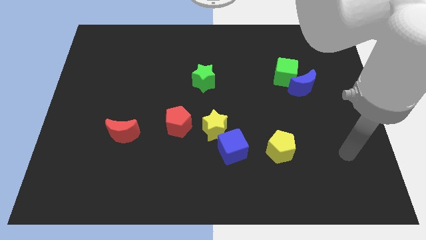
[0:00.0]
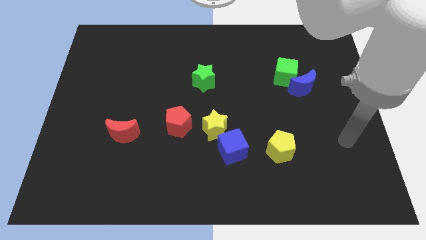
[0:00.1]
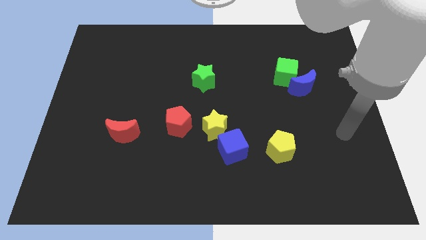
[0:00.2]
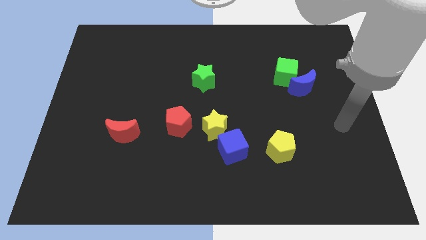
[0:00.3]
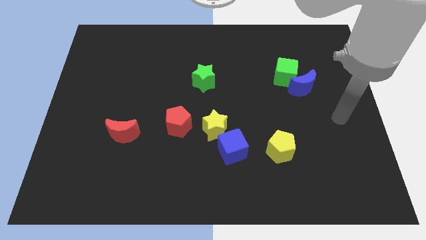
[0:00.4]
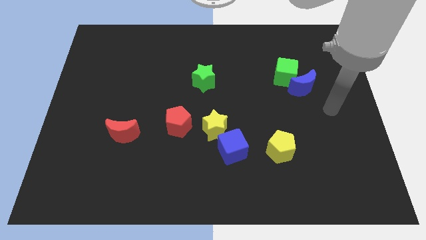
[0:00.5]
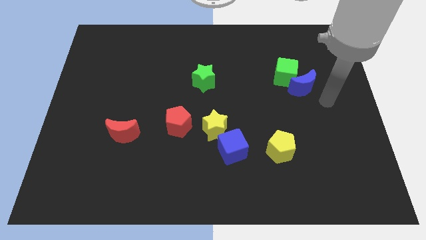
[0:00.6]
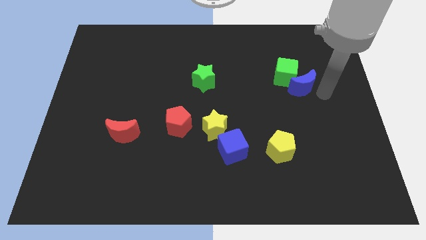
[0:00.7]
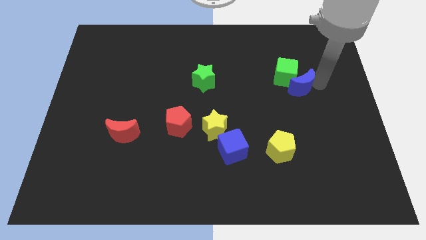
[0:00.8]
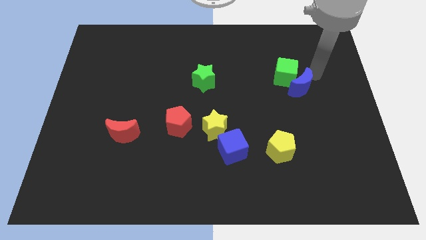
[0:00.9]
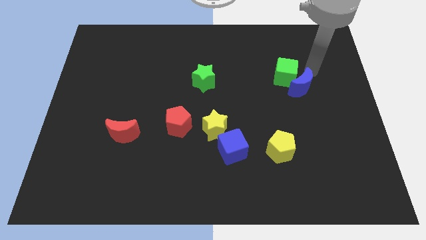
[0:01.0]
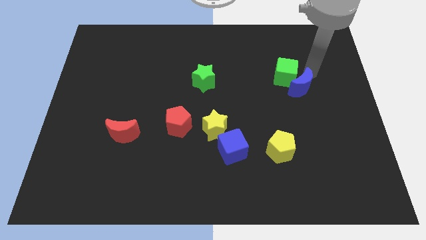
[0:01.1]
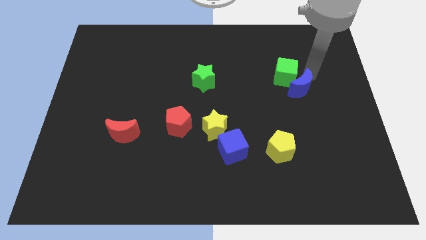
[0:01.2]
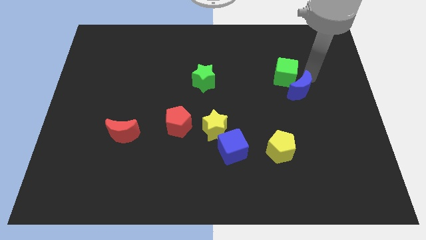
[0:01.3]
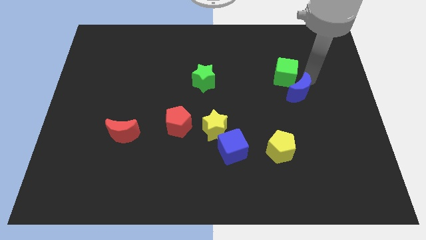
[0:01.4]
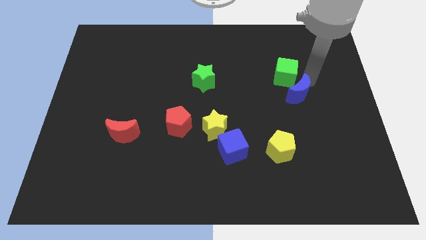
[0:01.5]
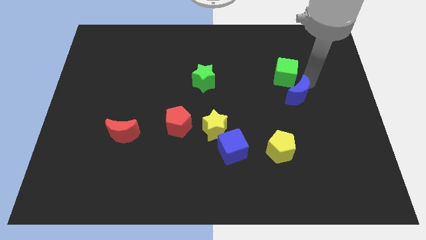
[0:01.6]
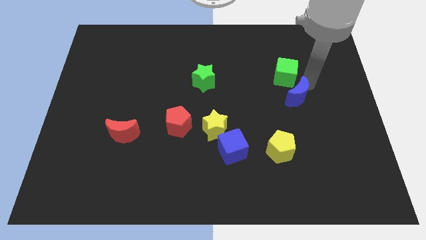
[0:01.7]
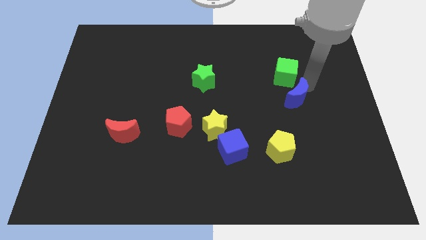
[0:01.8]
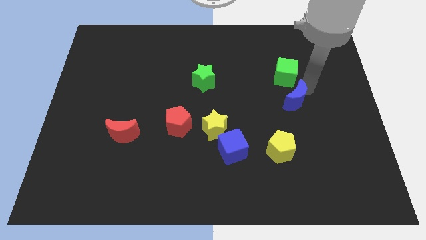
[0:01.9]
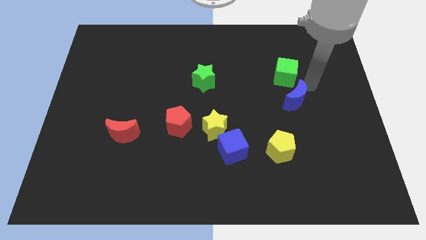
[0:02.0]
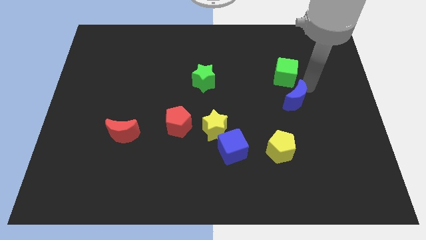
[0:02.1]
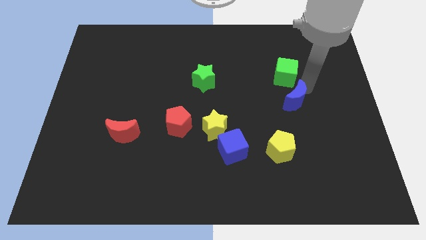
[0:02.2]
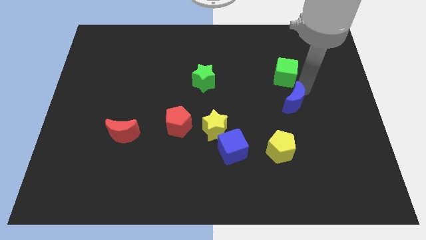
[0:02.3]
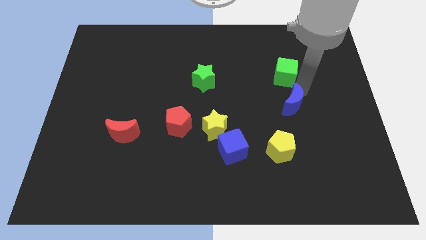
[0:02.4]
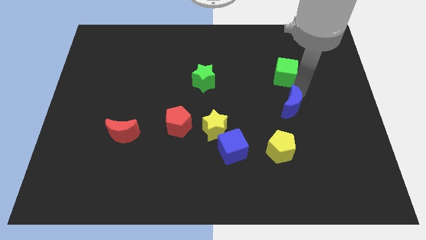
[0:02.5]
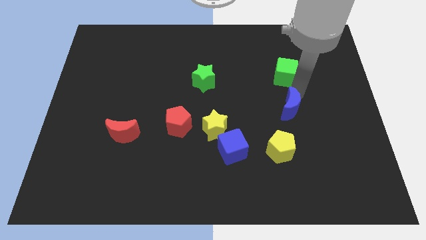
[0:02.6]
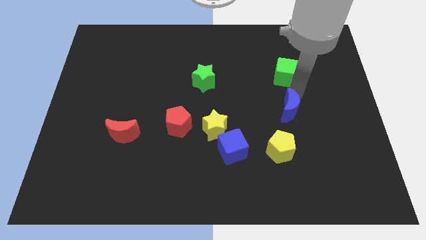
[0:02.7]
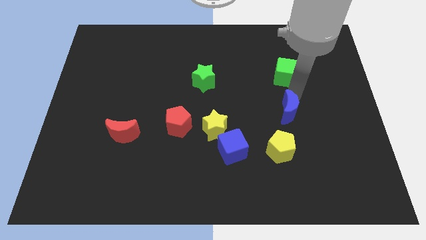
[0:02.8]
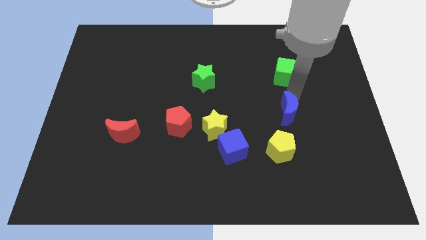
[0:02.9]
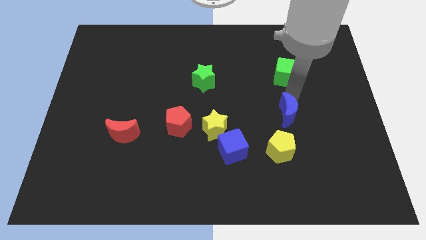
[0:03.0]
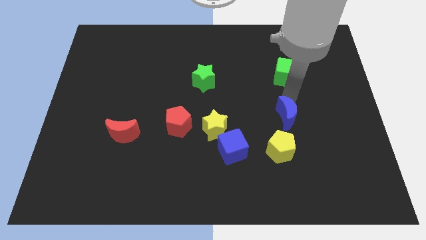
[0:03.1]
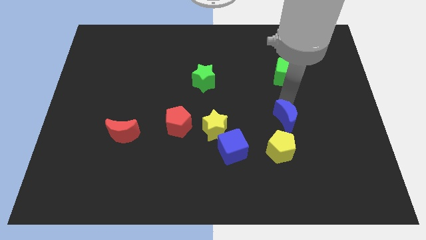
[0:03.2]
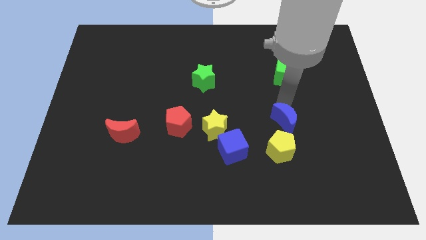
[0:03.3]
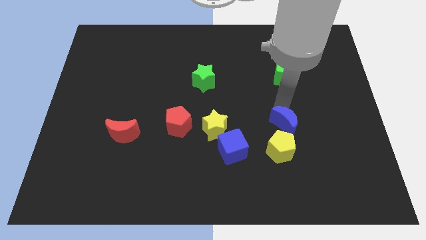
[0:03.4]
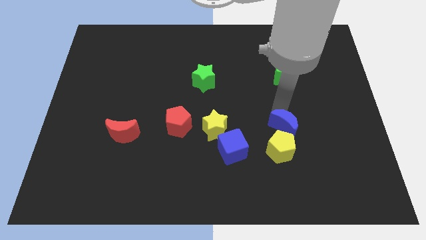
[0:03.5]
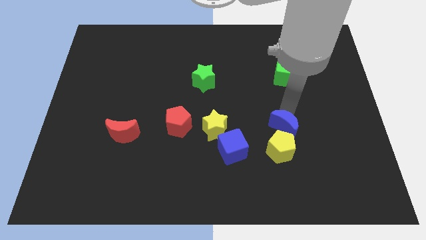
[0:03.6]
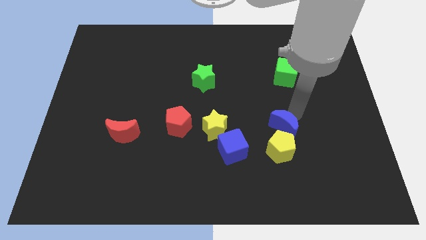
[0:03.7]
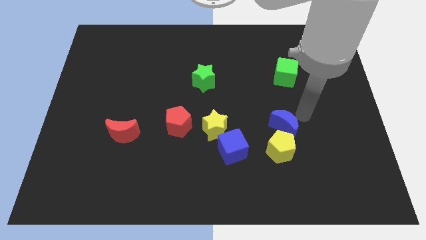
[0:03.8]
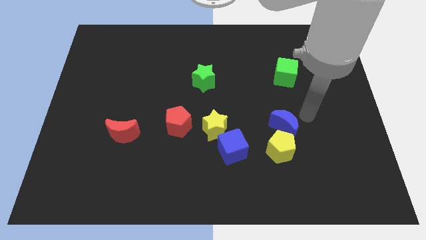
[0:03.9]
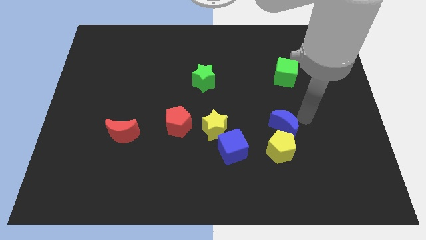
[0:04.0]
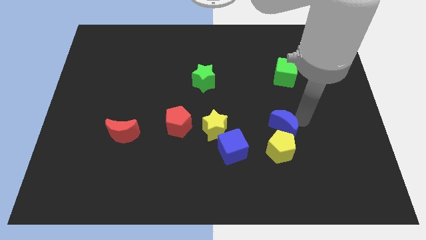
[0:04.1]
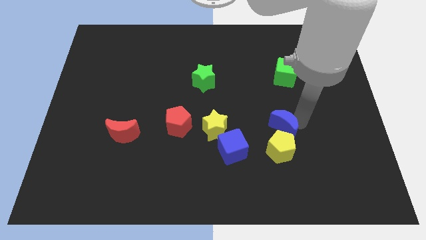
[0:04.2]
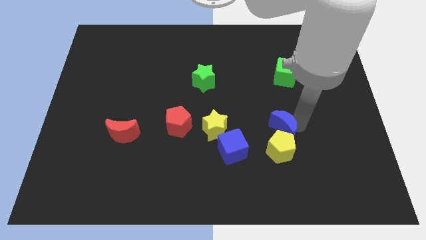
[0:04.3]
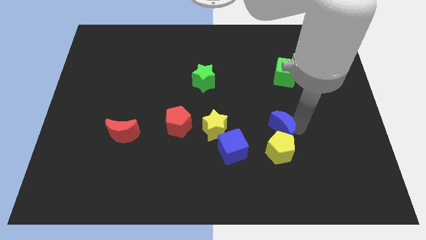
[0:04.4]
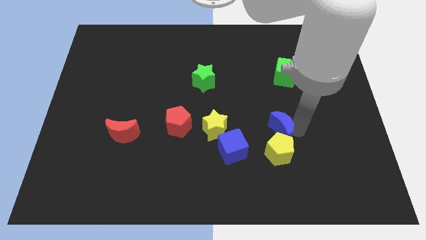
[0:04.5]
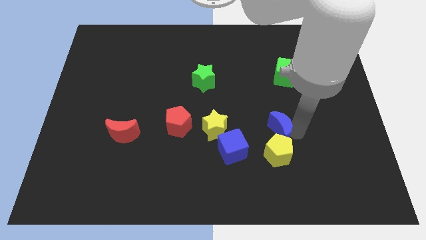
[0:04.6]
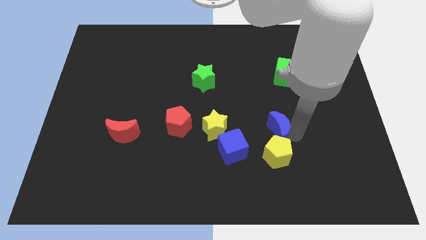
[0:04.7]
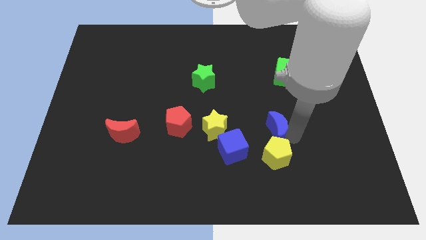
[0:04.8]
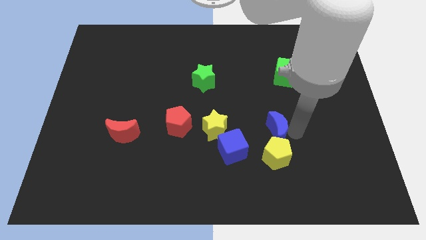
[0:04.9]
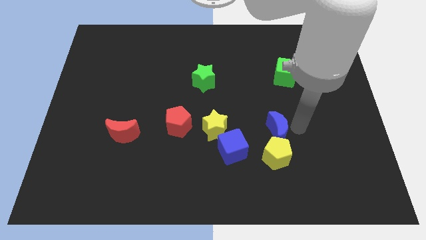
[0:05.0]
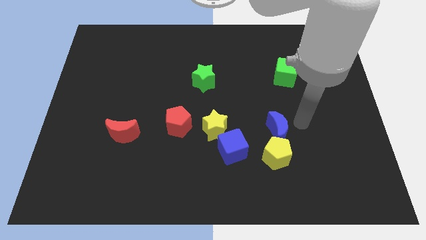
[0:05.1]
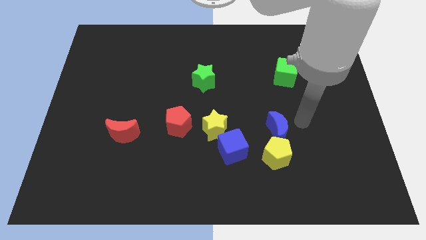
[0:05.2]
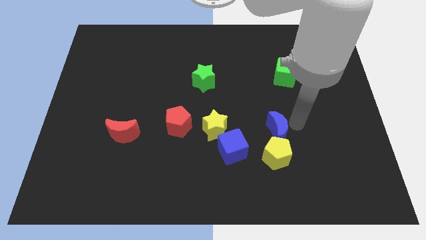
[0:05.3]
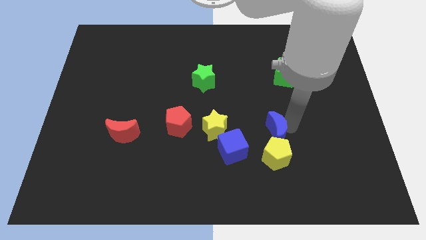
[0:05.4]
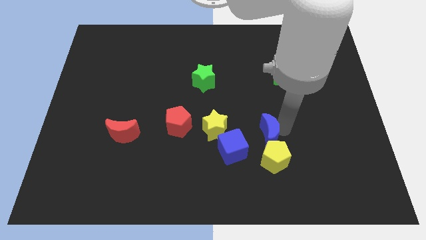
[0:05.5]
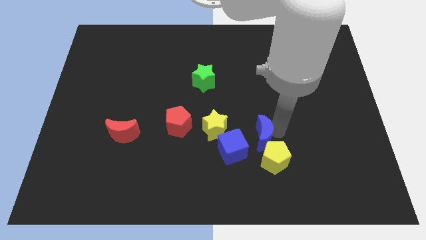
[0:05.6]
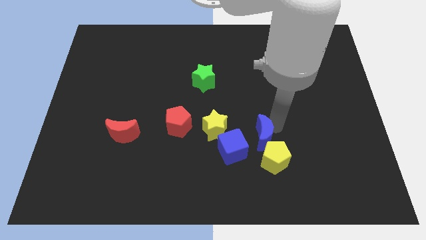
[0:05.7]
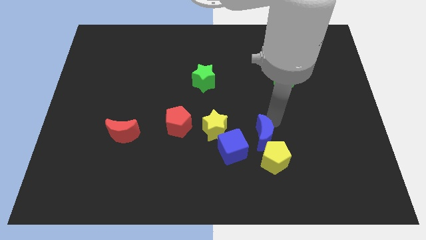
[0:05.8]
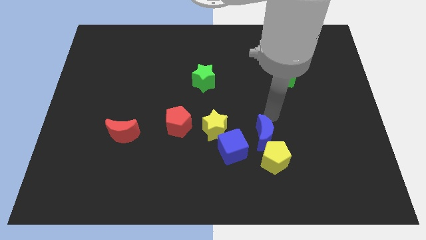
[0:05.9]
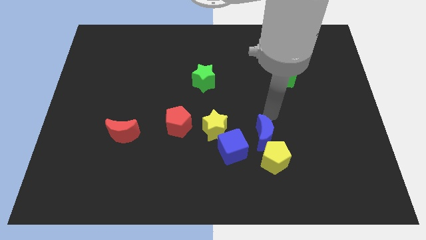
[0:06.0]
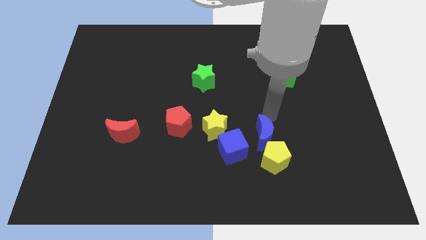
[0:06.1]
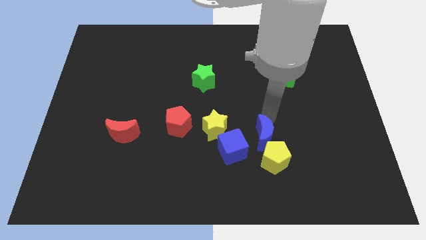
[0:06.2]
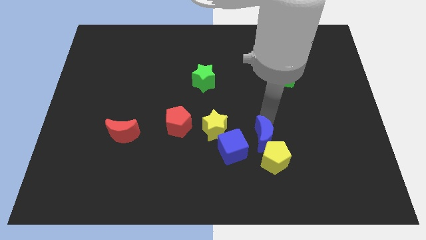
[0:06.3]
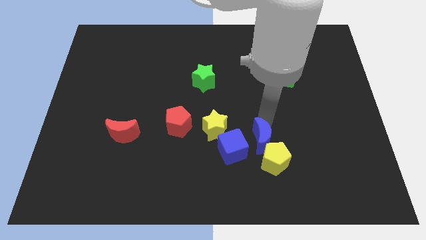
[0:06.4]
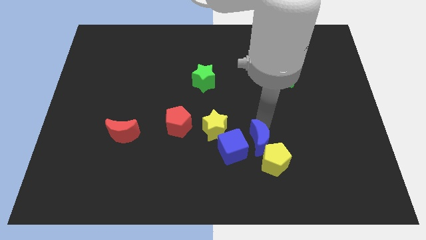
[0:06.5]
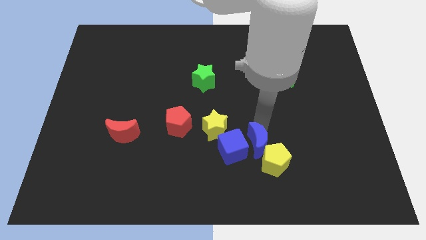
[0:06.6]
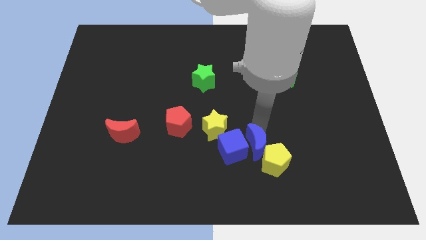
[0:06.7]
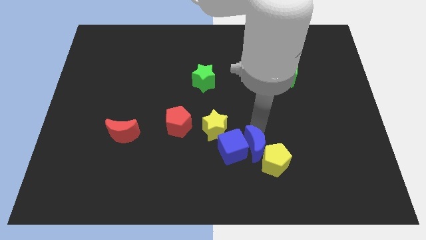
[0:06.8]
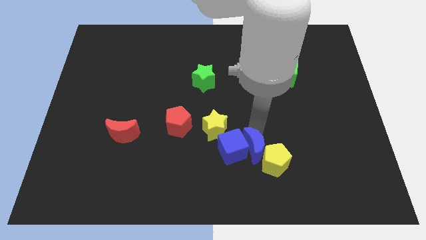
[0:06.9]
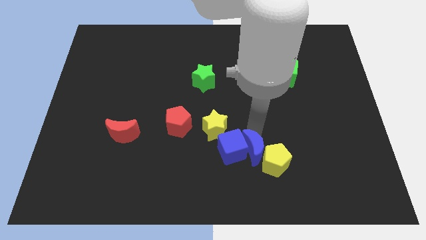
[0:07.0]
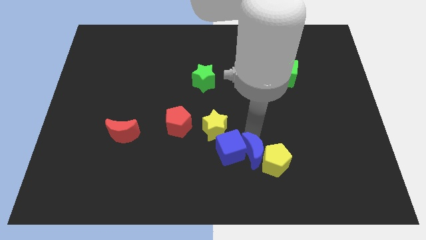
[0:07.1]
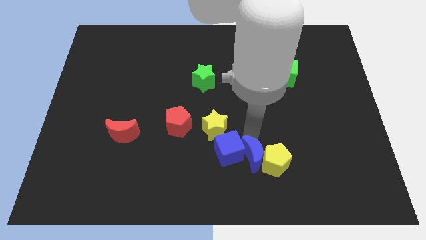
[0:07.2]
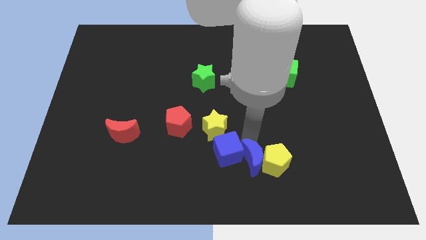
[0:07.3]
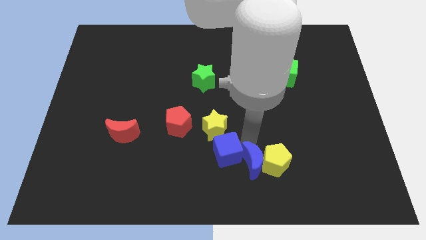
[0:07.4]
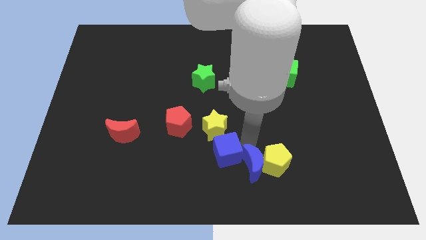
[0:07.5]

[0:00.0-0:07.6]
put the blue moon to the bottom side

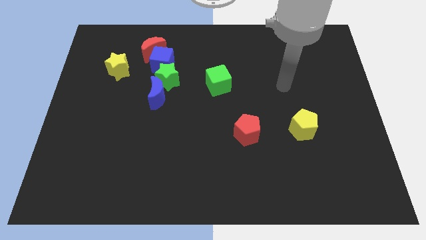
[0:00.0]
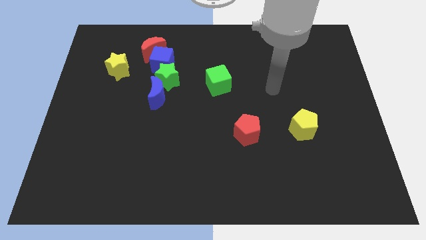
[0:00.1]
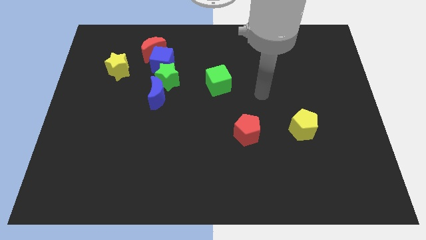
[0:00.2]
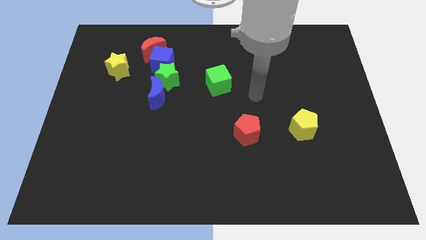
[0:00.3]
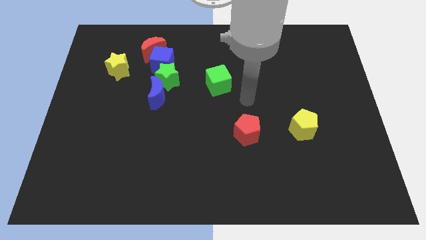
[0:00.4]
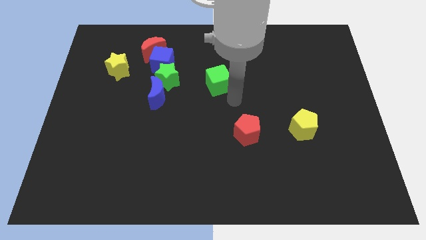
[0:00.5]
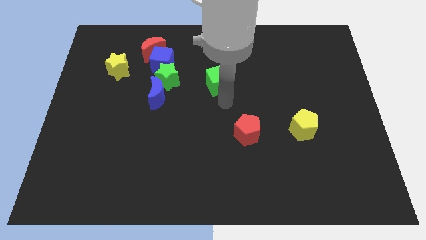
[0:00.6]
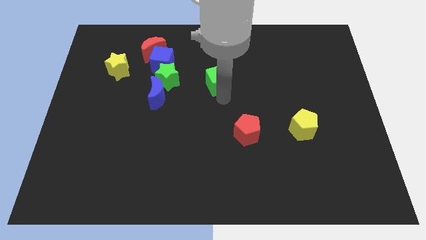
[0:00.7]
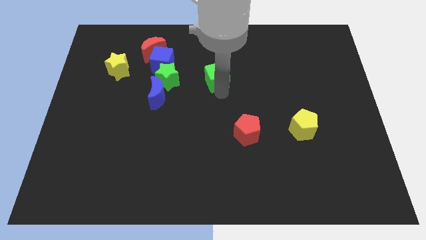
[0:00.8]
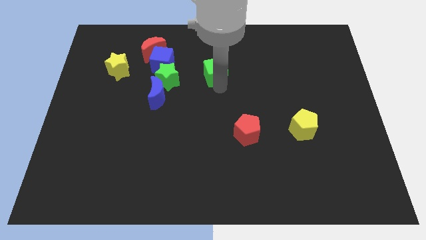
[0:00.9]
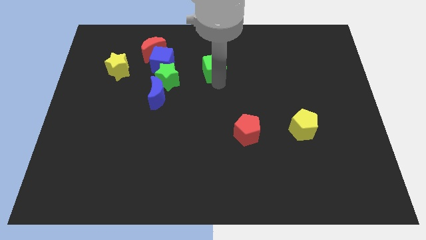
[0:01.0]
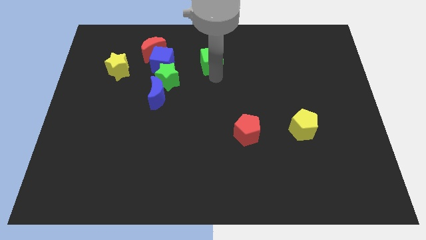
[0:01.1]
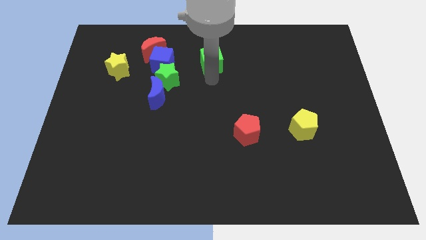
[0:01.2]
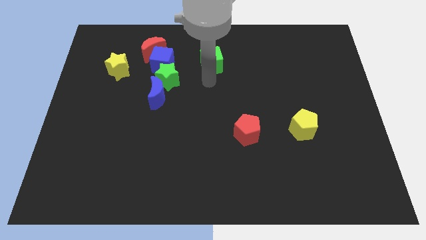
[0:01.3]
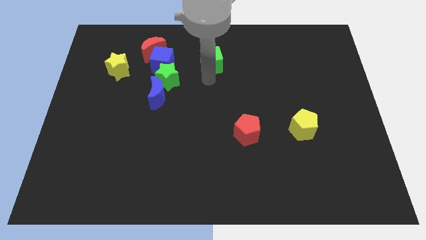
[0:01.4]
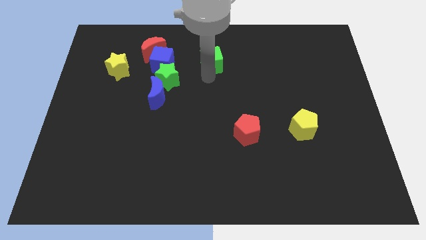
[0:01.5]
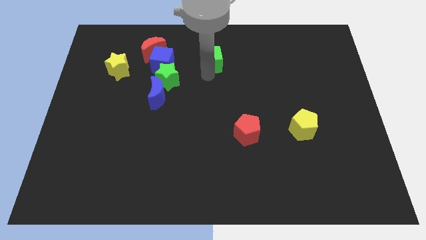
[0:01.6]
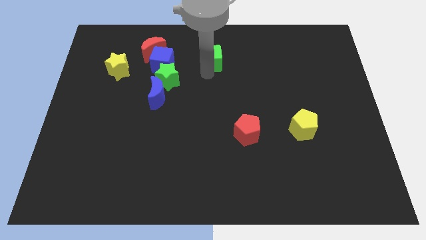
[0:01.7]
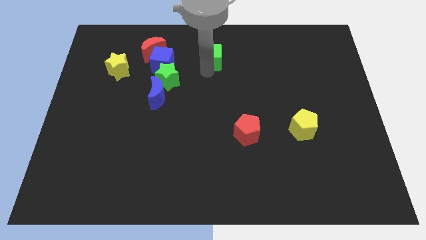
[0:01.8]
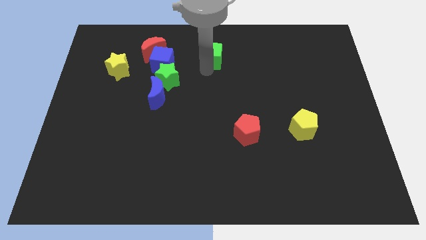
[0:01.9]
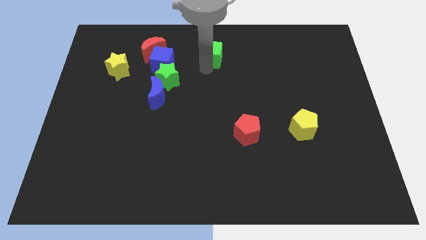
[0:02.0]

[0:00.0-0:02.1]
put the green cube to the top side
